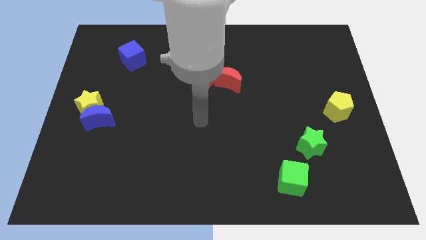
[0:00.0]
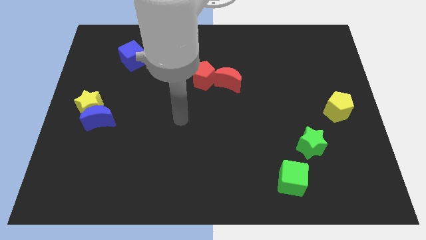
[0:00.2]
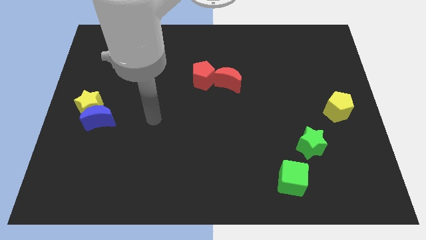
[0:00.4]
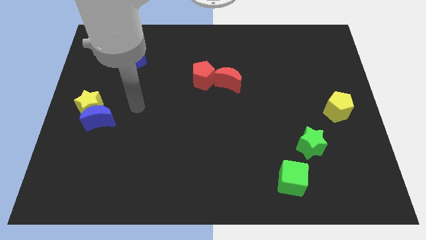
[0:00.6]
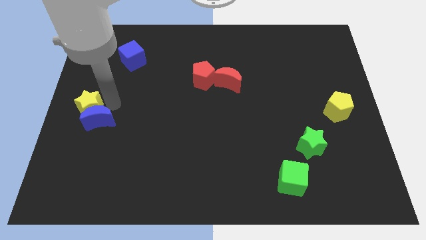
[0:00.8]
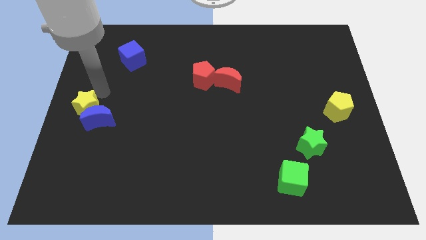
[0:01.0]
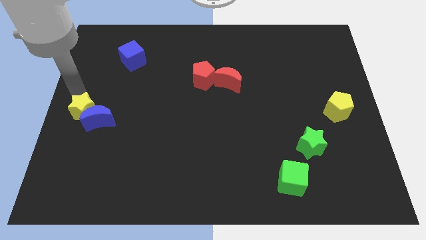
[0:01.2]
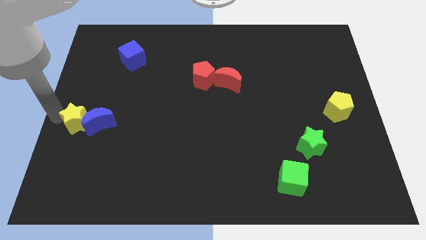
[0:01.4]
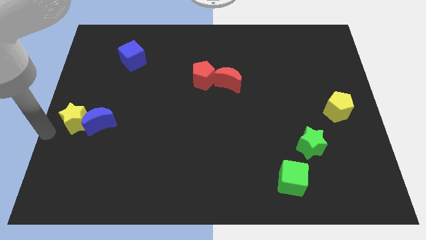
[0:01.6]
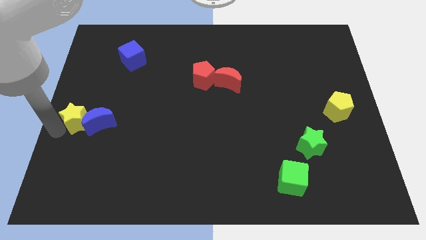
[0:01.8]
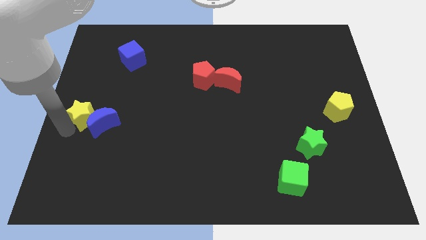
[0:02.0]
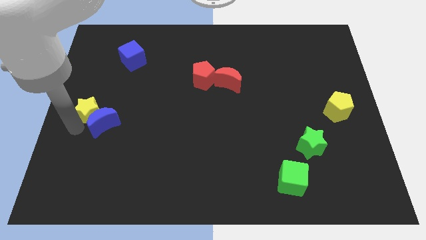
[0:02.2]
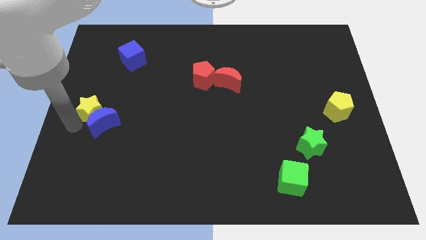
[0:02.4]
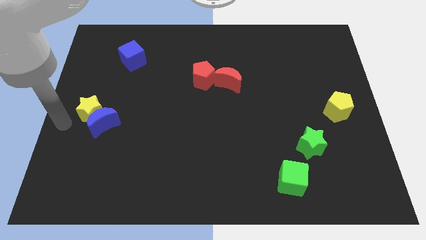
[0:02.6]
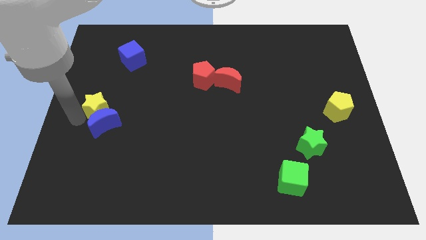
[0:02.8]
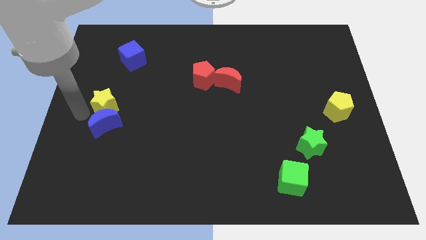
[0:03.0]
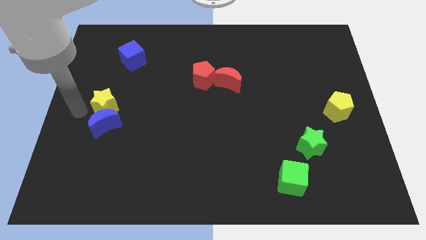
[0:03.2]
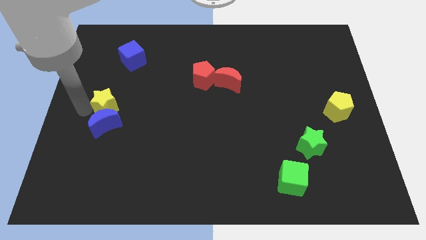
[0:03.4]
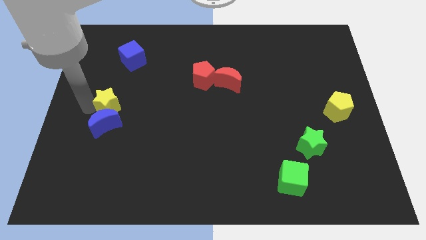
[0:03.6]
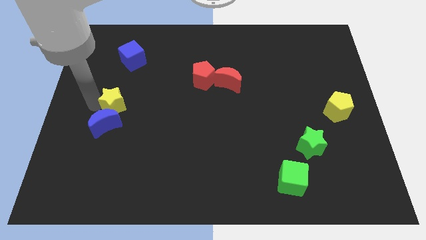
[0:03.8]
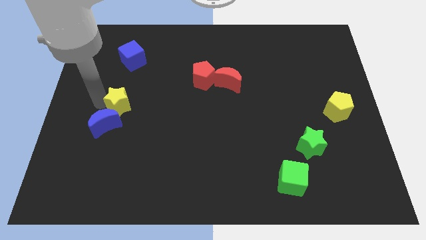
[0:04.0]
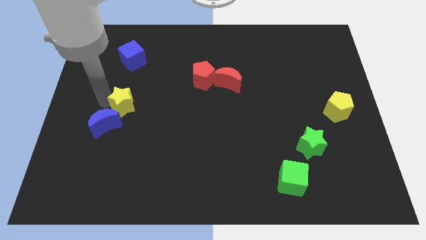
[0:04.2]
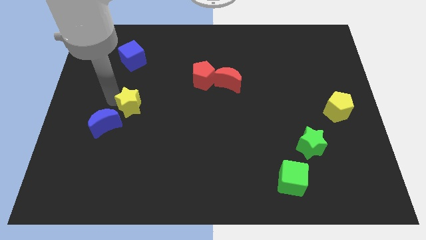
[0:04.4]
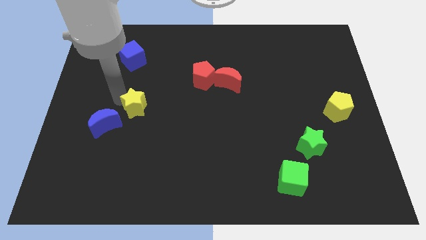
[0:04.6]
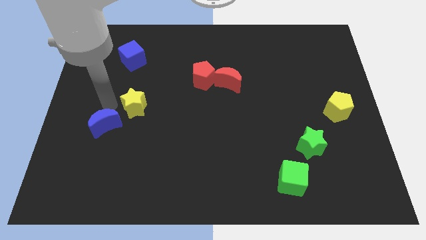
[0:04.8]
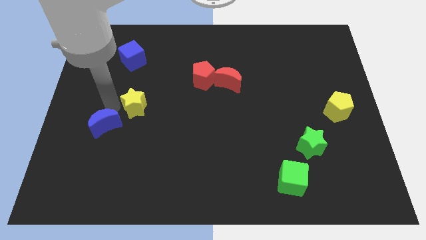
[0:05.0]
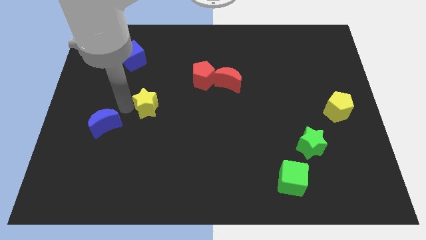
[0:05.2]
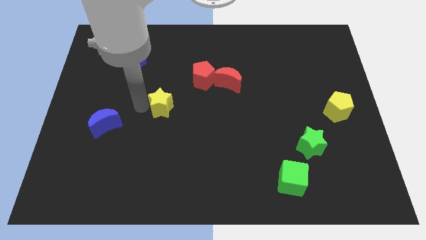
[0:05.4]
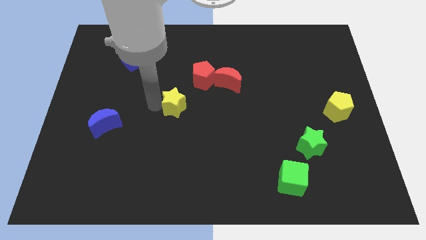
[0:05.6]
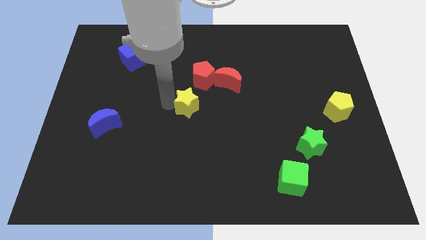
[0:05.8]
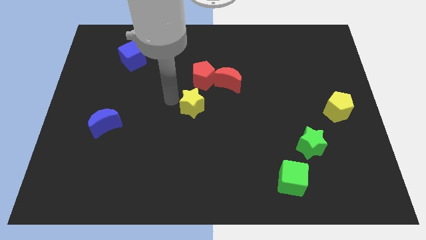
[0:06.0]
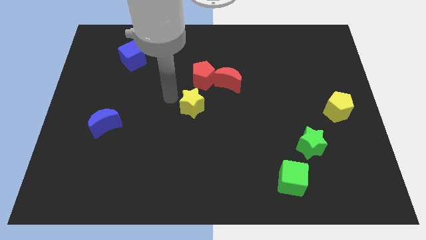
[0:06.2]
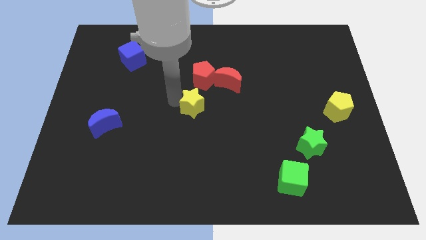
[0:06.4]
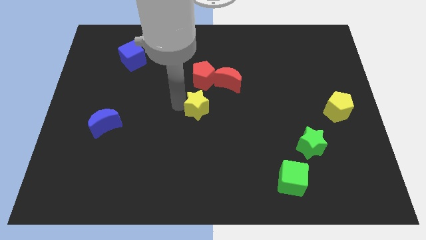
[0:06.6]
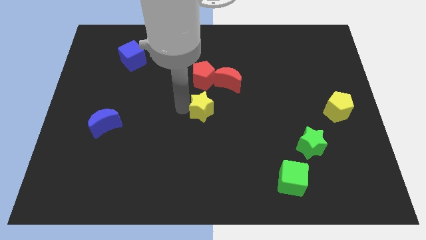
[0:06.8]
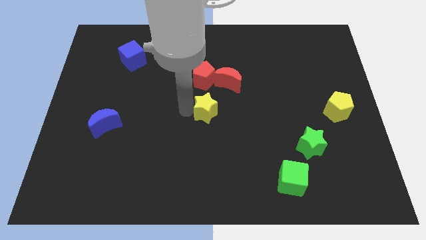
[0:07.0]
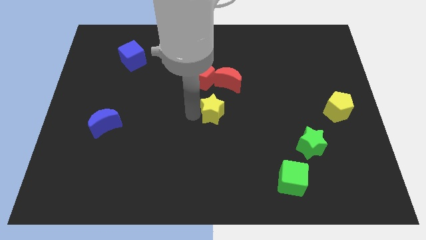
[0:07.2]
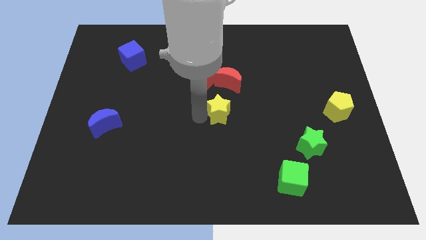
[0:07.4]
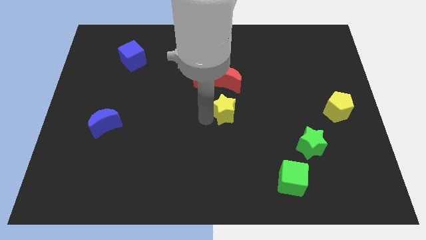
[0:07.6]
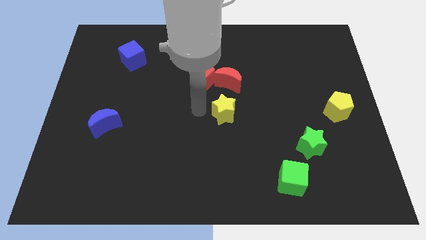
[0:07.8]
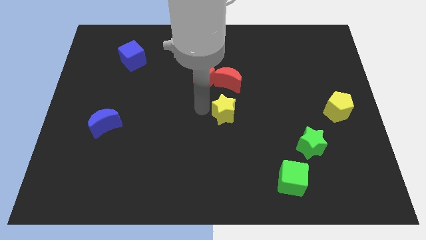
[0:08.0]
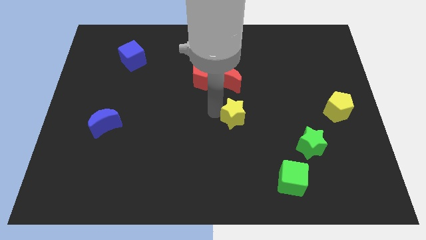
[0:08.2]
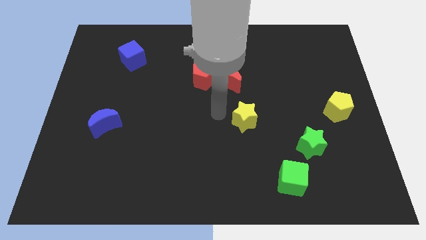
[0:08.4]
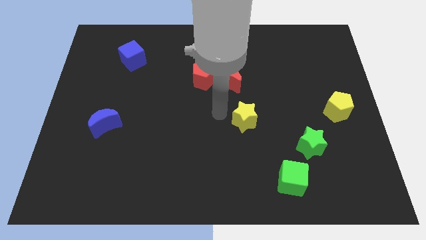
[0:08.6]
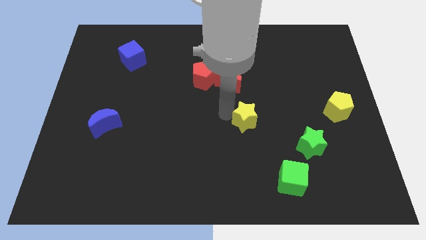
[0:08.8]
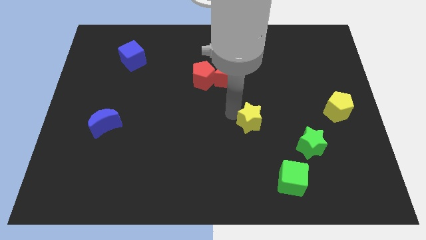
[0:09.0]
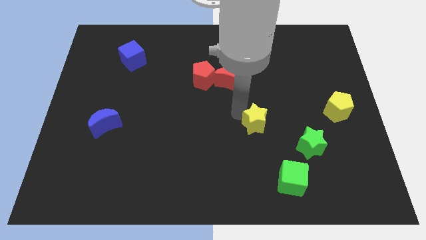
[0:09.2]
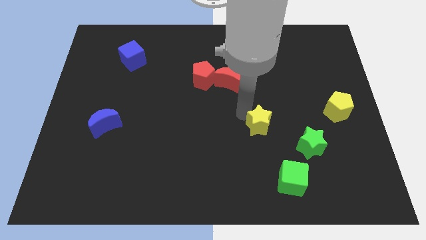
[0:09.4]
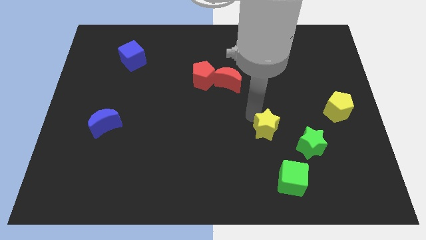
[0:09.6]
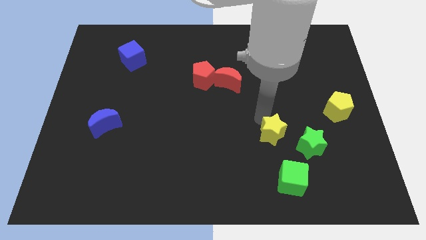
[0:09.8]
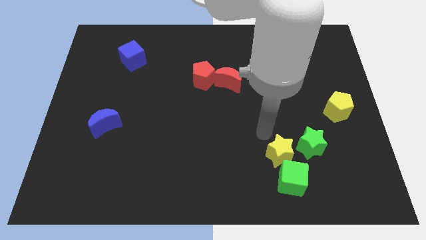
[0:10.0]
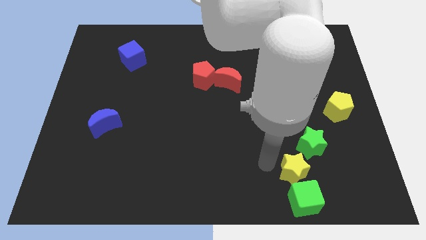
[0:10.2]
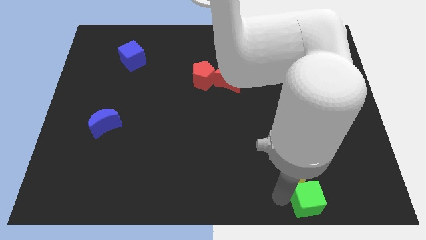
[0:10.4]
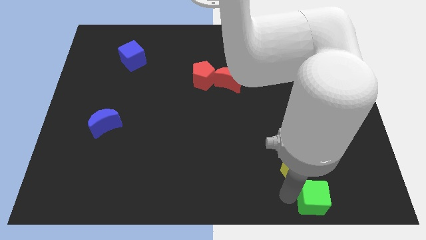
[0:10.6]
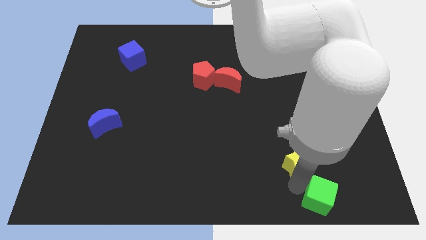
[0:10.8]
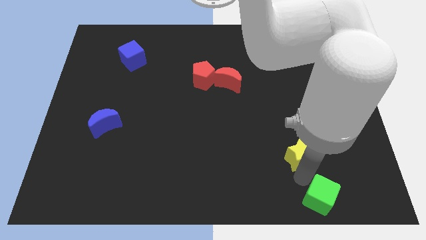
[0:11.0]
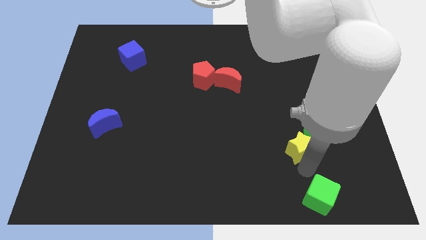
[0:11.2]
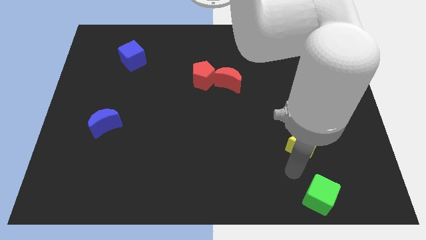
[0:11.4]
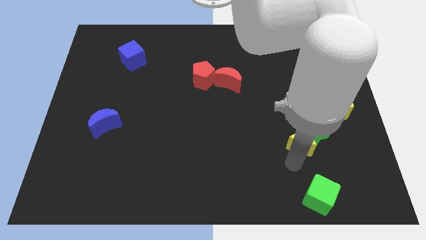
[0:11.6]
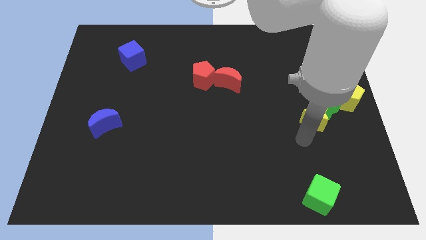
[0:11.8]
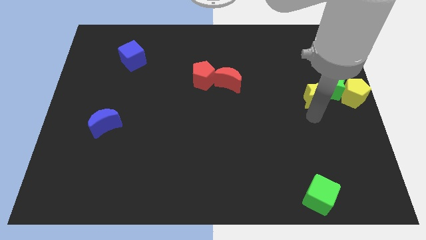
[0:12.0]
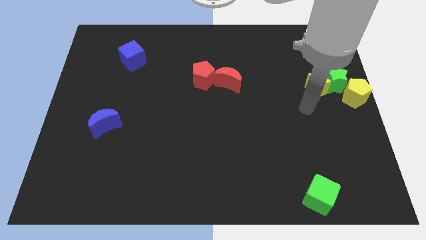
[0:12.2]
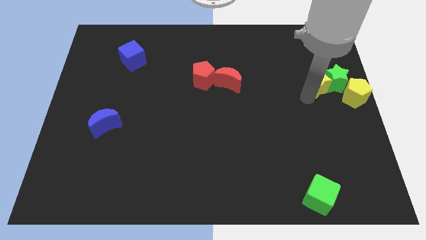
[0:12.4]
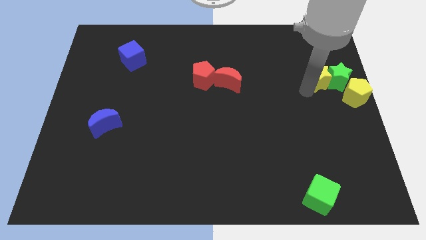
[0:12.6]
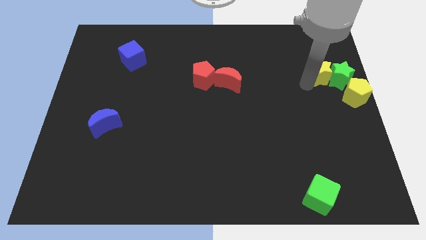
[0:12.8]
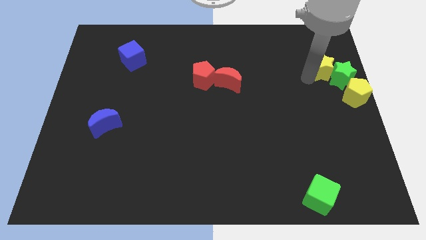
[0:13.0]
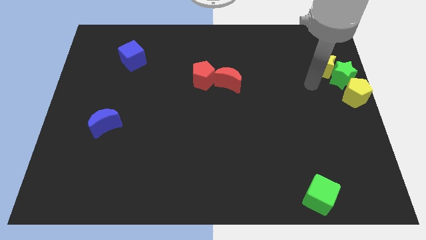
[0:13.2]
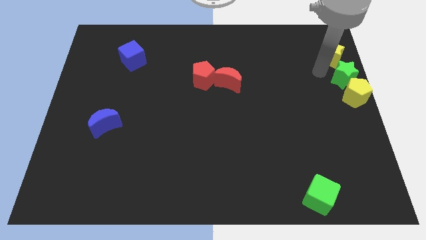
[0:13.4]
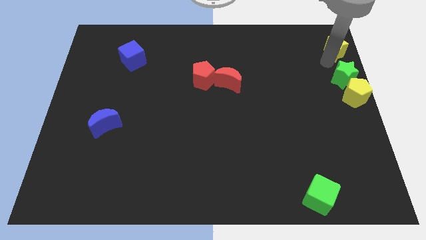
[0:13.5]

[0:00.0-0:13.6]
slide the yellow star to the top right corner
